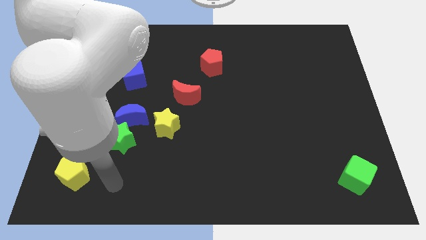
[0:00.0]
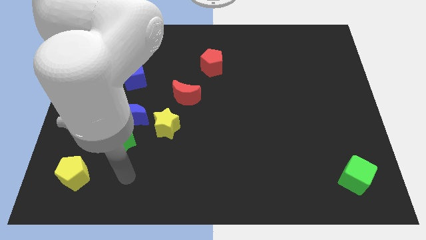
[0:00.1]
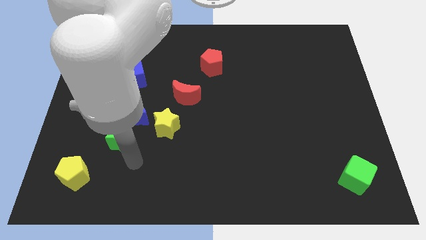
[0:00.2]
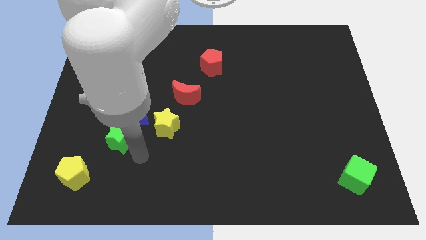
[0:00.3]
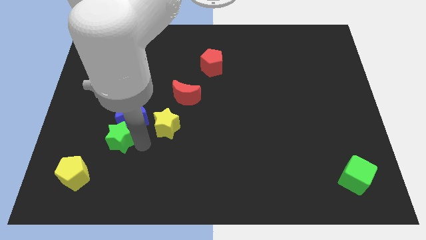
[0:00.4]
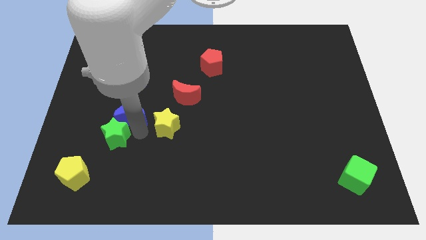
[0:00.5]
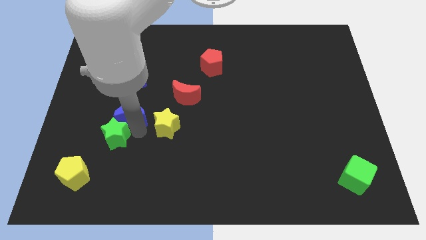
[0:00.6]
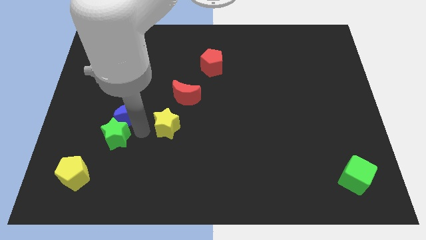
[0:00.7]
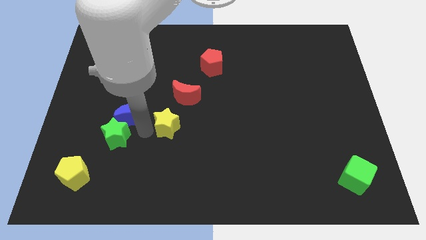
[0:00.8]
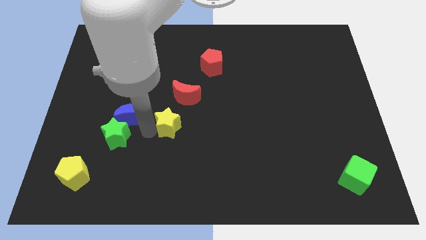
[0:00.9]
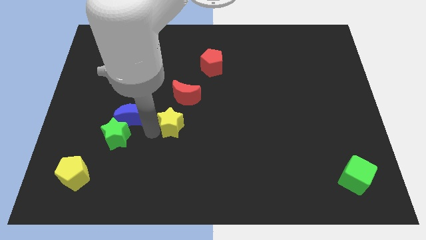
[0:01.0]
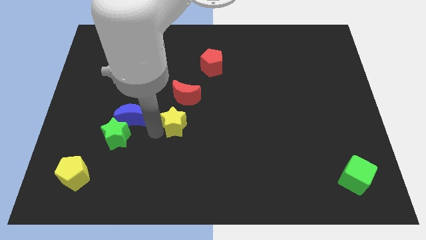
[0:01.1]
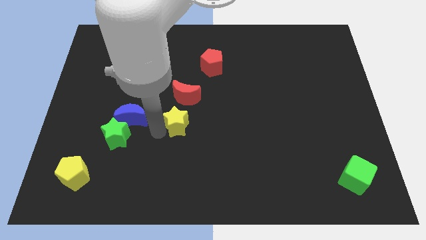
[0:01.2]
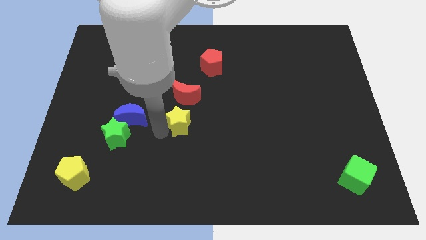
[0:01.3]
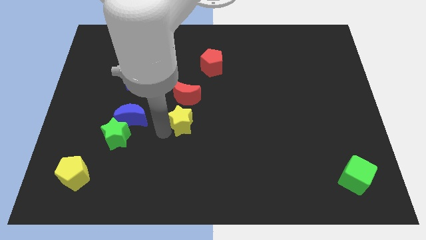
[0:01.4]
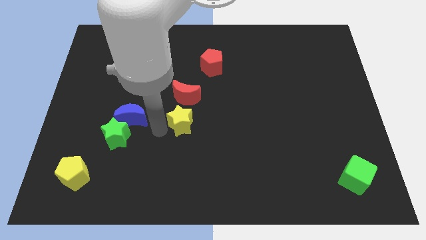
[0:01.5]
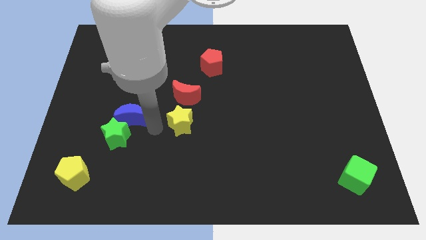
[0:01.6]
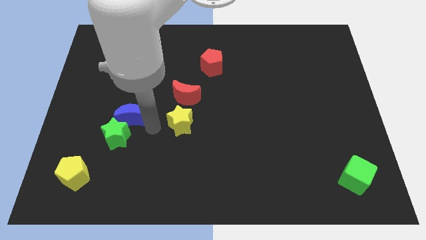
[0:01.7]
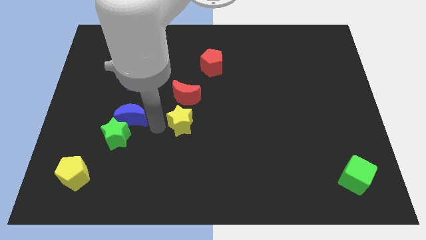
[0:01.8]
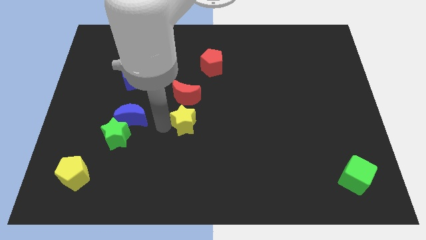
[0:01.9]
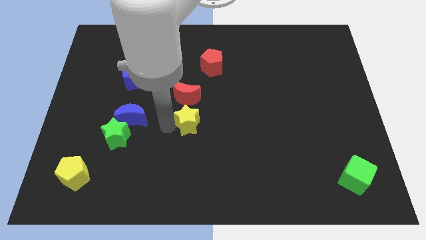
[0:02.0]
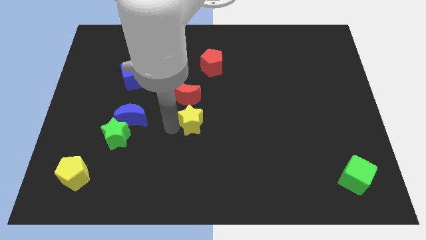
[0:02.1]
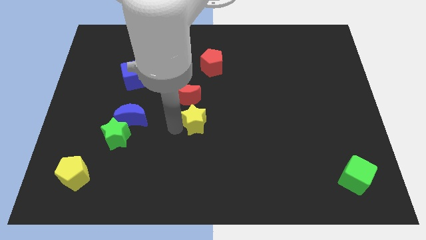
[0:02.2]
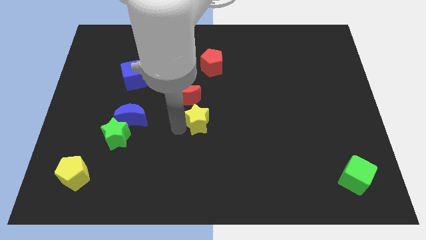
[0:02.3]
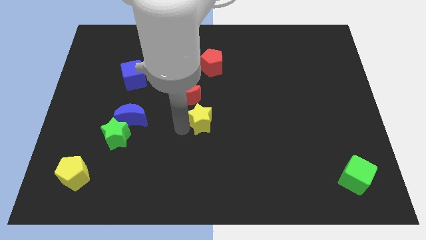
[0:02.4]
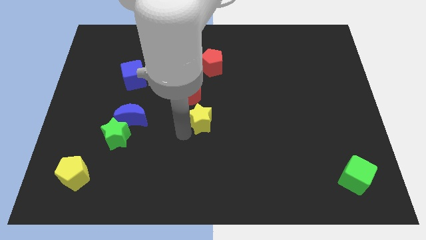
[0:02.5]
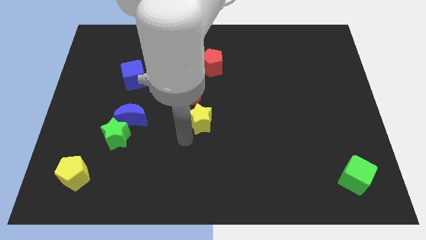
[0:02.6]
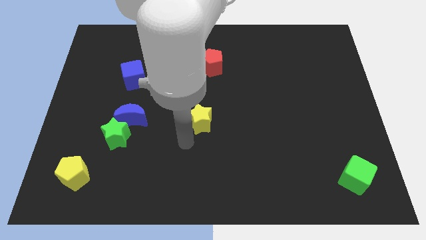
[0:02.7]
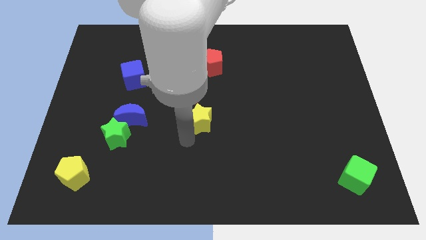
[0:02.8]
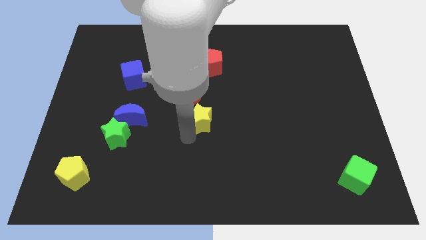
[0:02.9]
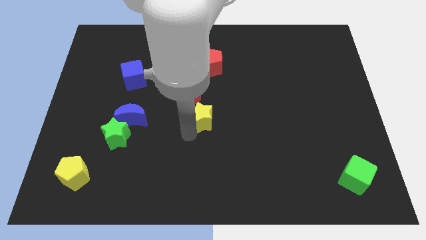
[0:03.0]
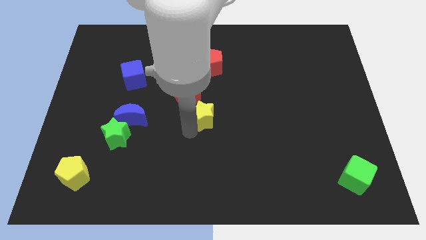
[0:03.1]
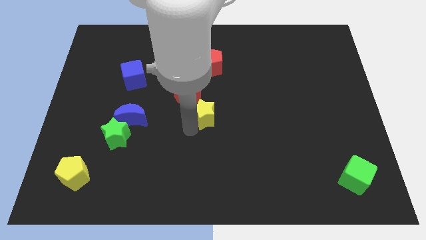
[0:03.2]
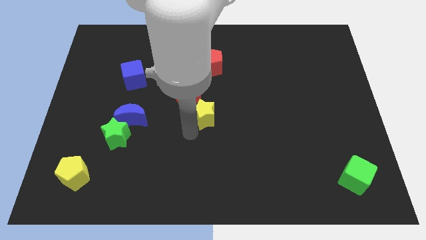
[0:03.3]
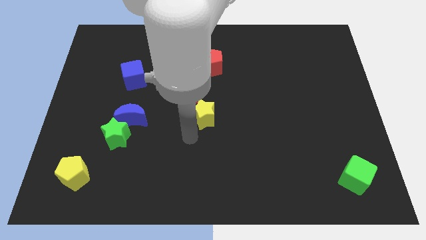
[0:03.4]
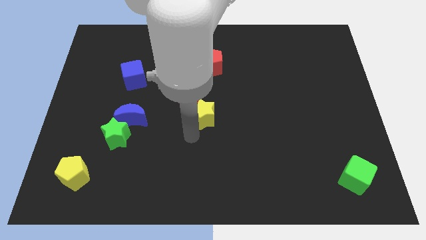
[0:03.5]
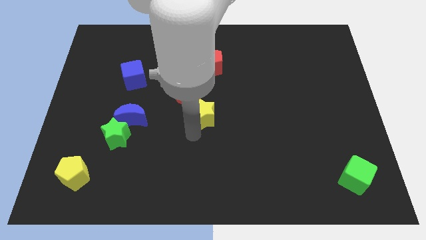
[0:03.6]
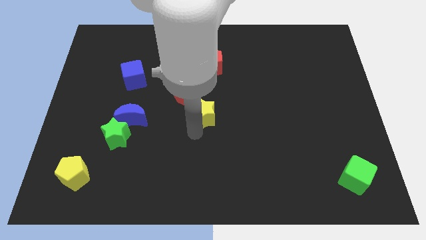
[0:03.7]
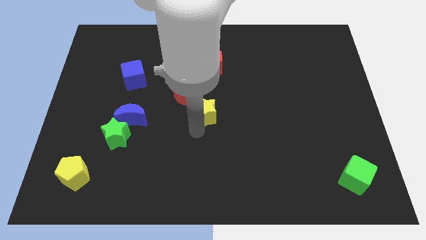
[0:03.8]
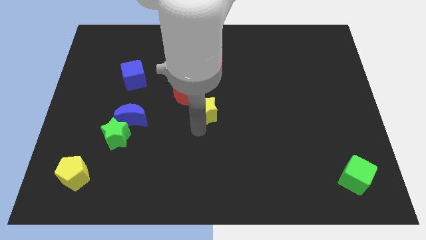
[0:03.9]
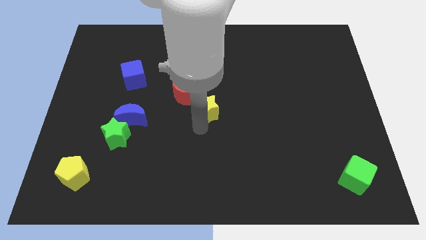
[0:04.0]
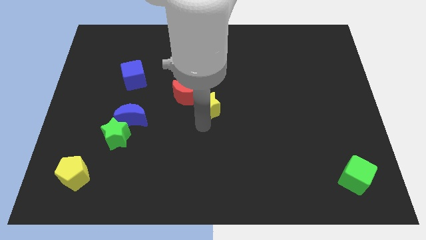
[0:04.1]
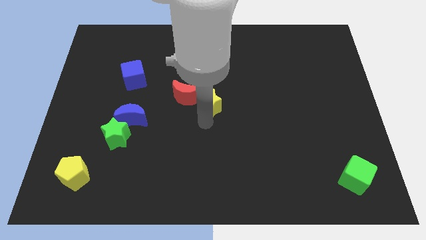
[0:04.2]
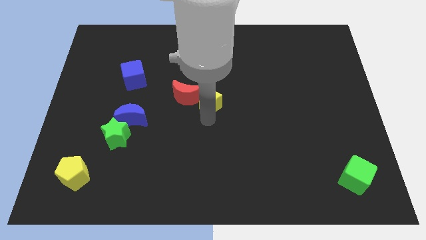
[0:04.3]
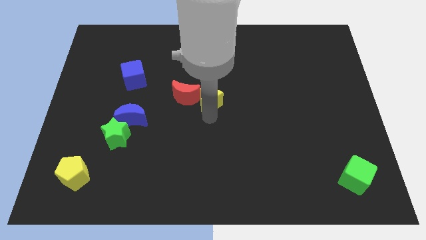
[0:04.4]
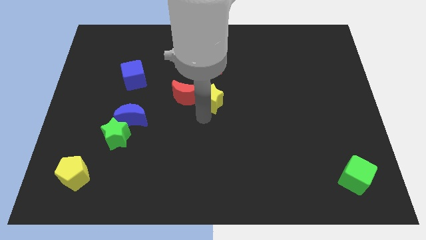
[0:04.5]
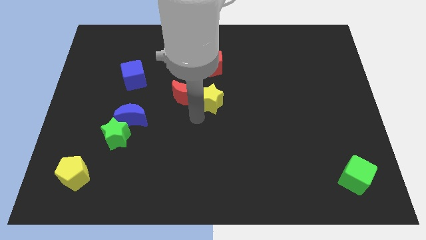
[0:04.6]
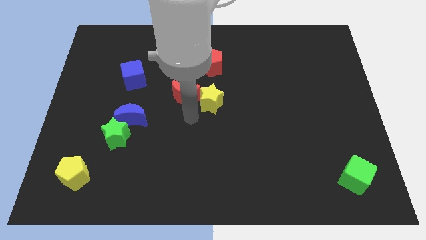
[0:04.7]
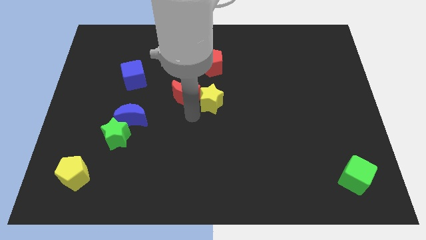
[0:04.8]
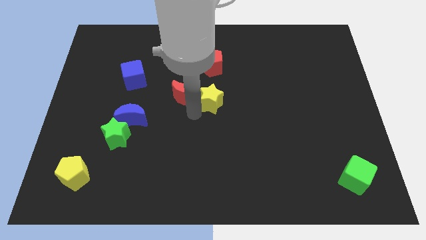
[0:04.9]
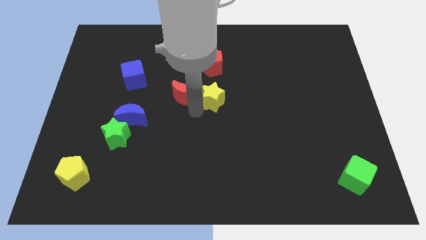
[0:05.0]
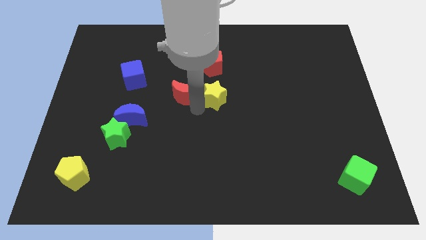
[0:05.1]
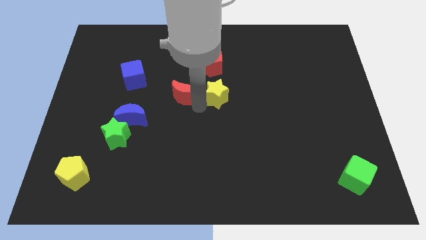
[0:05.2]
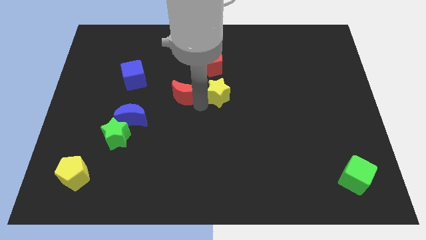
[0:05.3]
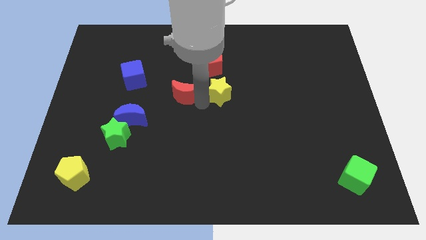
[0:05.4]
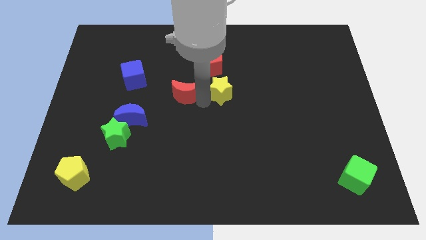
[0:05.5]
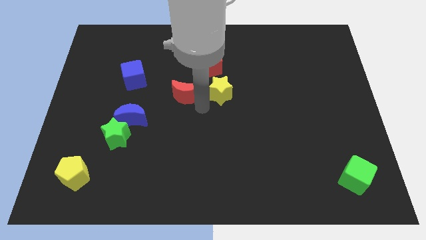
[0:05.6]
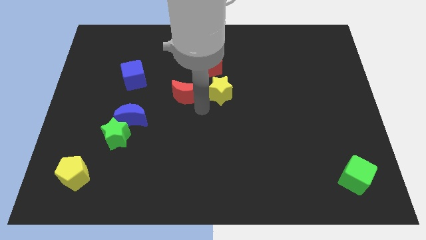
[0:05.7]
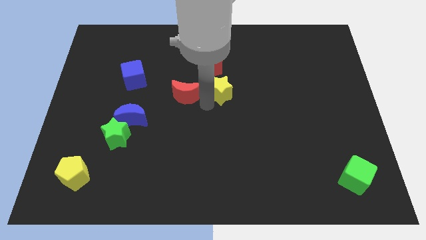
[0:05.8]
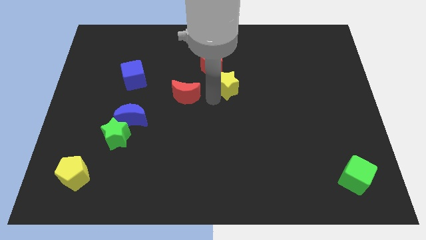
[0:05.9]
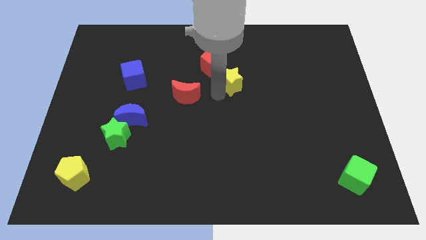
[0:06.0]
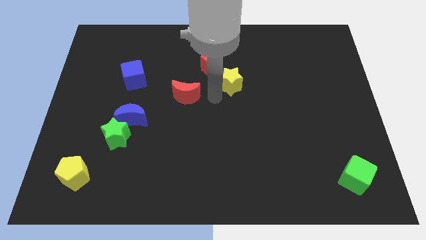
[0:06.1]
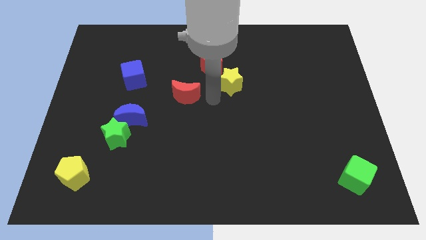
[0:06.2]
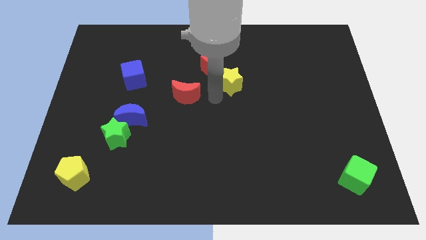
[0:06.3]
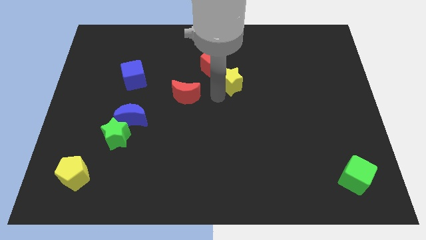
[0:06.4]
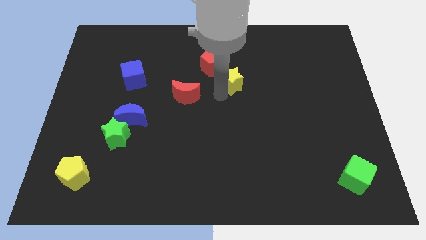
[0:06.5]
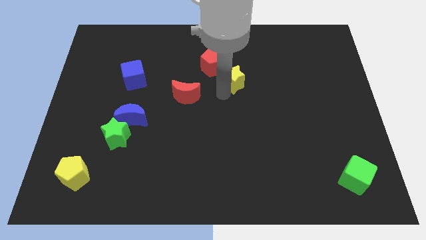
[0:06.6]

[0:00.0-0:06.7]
slide the yellow star diagonally up and right

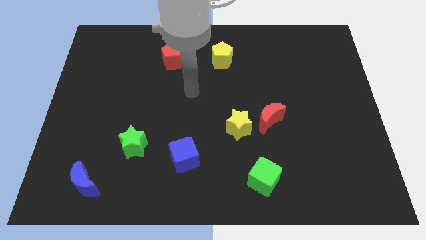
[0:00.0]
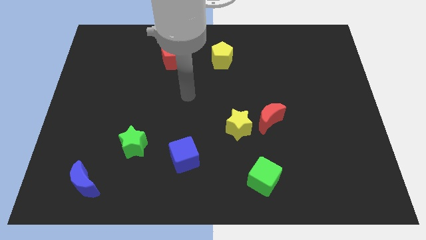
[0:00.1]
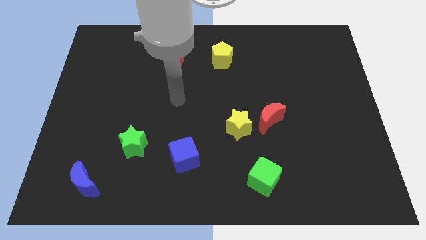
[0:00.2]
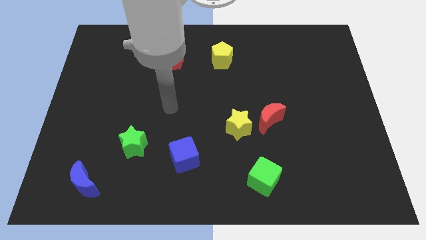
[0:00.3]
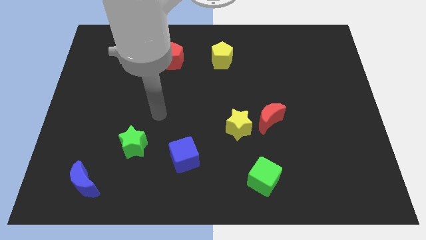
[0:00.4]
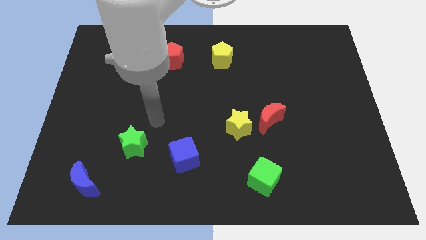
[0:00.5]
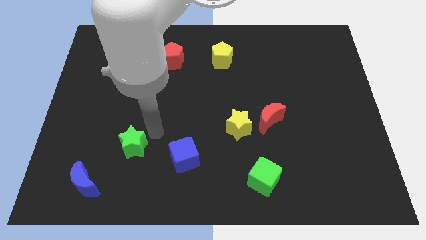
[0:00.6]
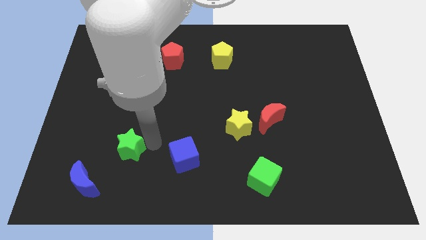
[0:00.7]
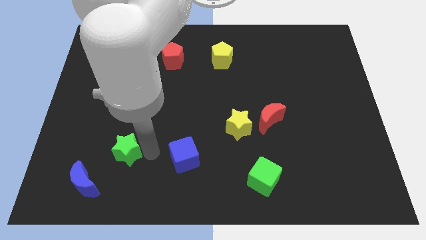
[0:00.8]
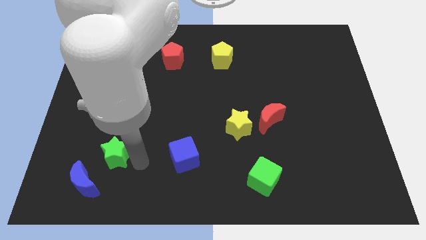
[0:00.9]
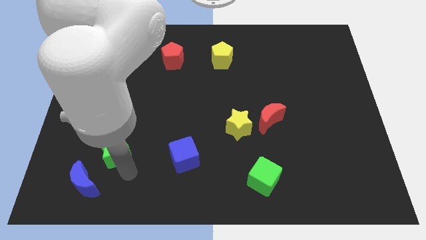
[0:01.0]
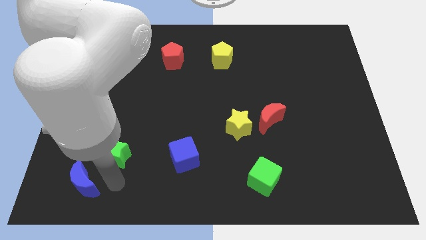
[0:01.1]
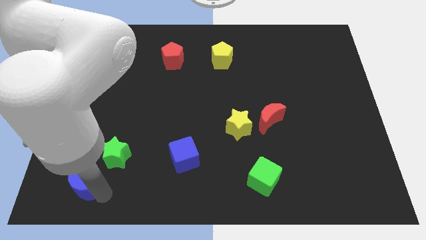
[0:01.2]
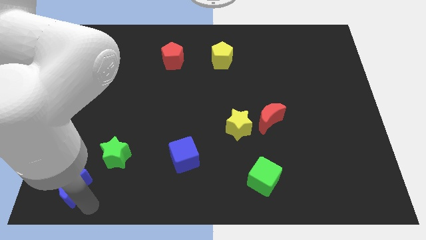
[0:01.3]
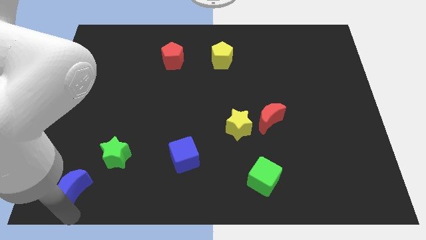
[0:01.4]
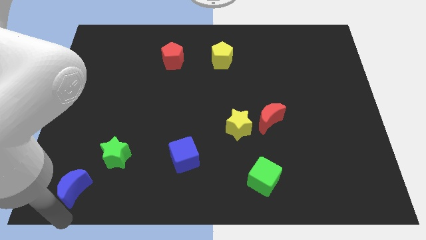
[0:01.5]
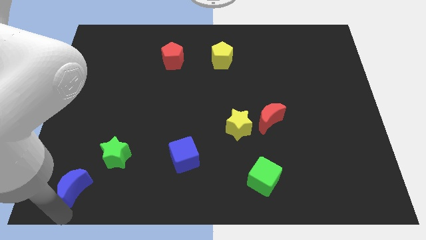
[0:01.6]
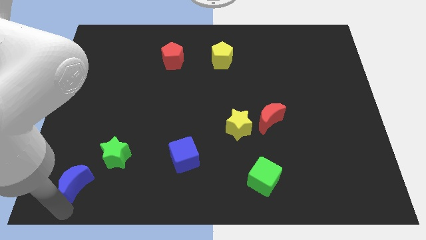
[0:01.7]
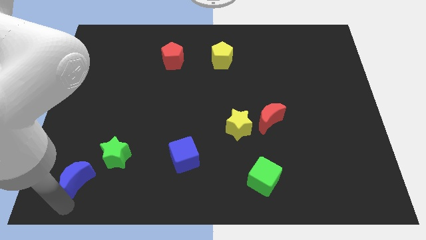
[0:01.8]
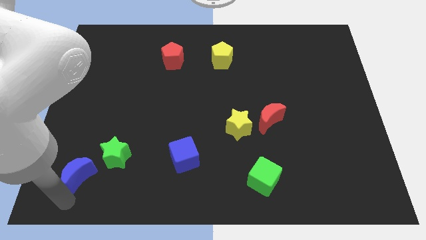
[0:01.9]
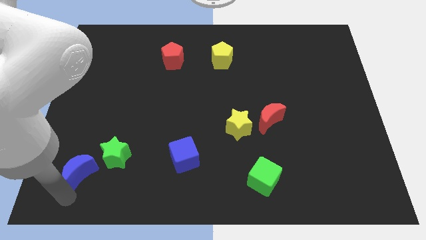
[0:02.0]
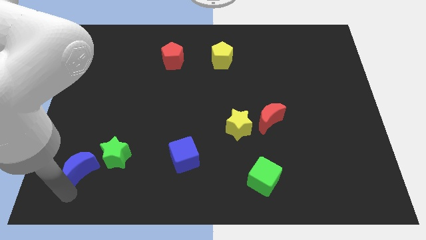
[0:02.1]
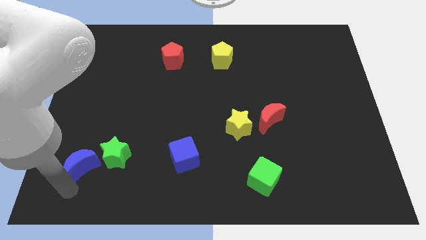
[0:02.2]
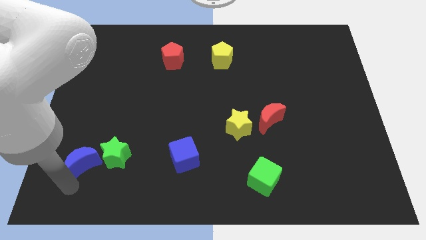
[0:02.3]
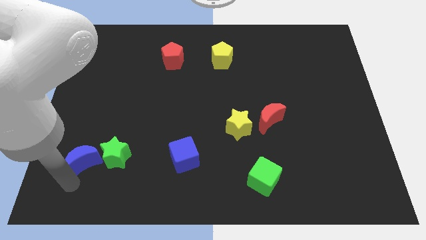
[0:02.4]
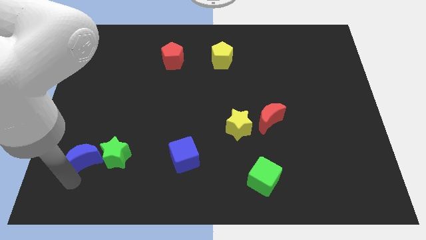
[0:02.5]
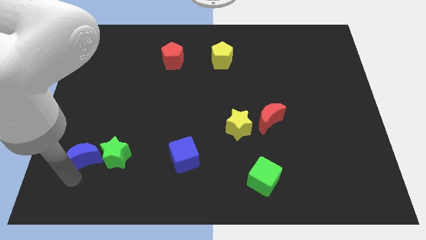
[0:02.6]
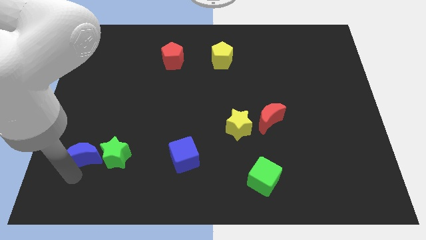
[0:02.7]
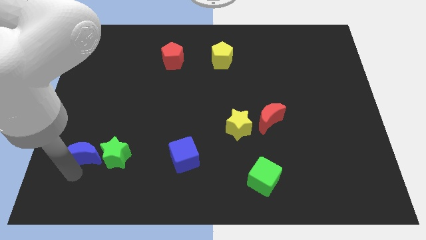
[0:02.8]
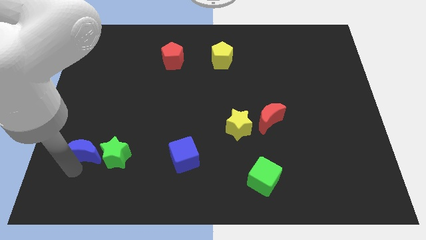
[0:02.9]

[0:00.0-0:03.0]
move the blue moon somewhat up
